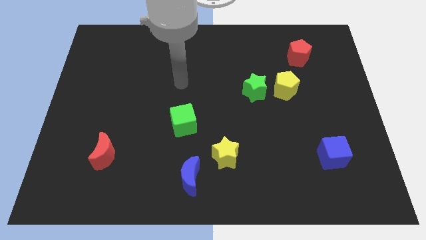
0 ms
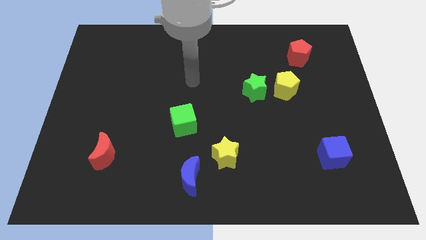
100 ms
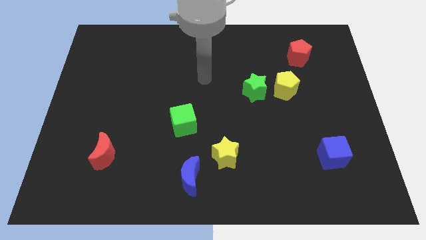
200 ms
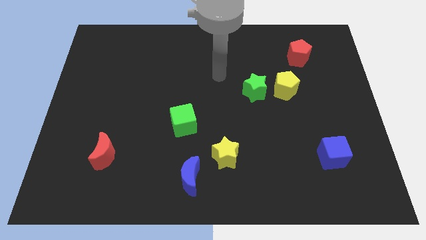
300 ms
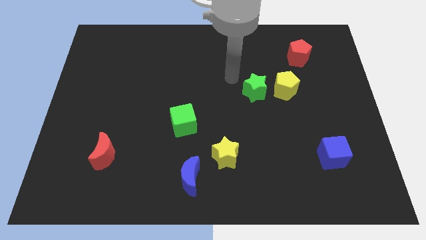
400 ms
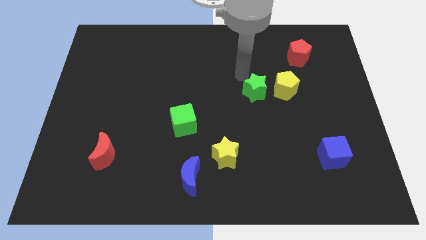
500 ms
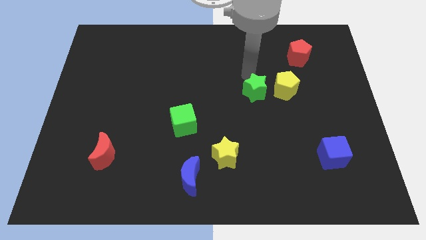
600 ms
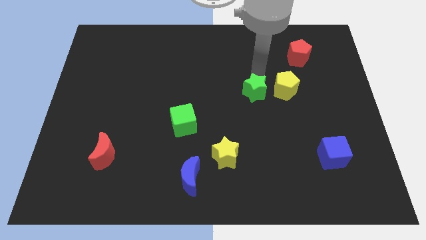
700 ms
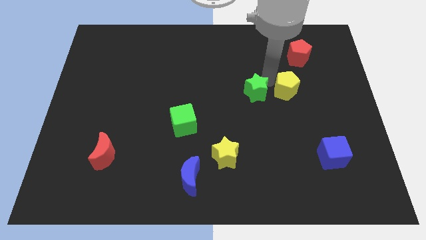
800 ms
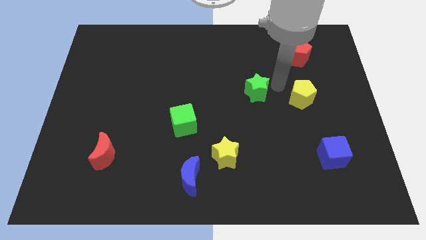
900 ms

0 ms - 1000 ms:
pull the green star apart from the yellow pentagon

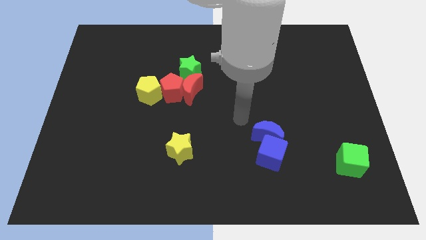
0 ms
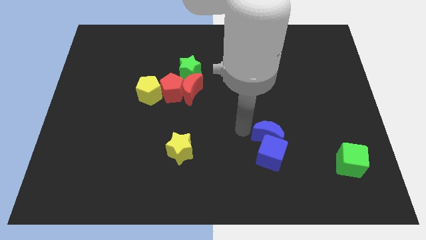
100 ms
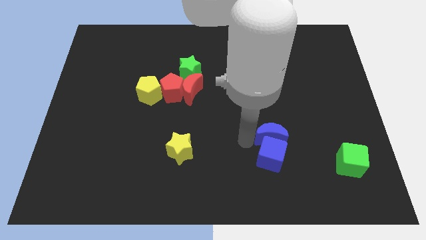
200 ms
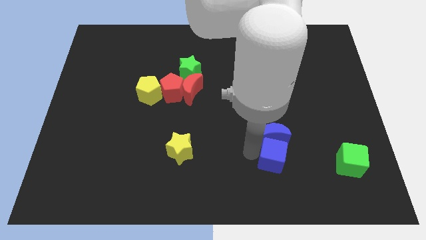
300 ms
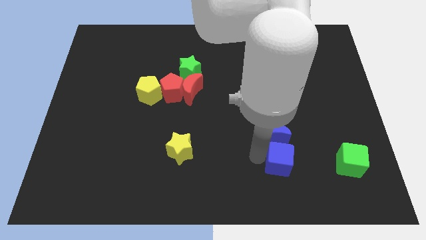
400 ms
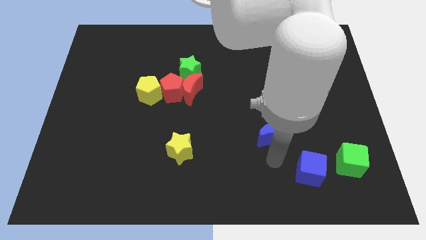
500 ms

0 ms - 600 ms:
separate the blue moon from the blue cube

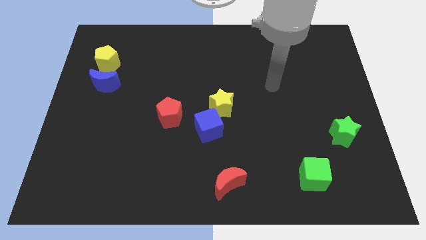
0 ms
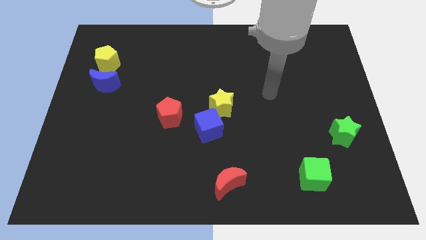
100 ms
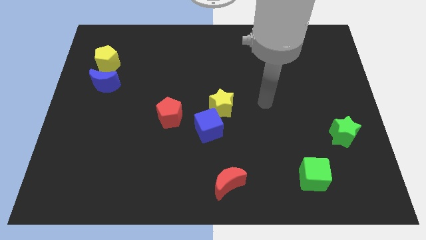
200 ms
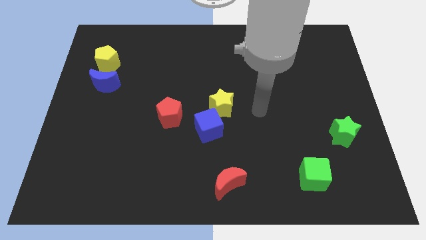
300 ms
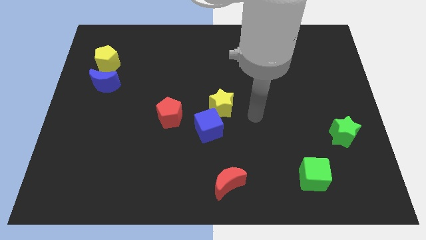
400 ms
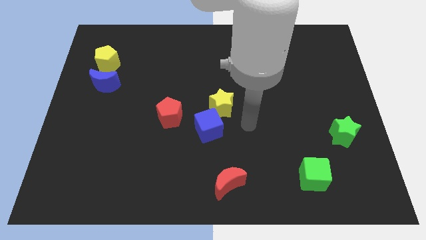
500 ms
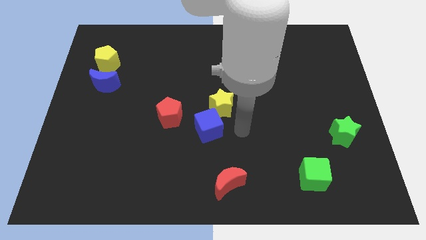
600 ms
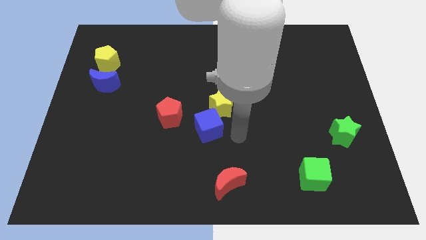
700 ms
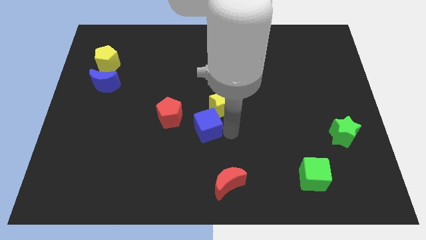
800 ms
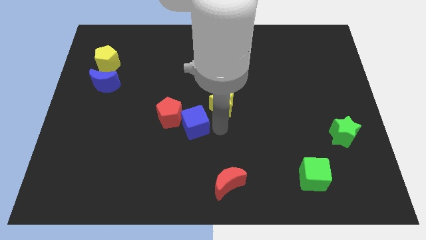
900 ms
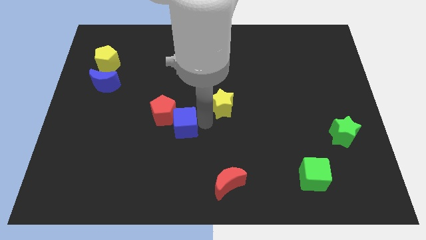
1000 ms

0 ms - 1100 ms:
move the yellow star away from the blue cube

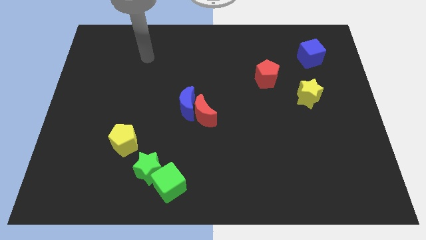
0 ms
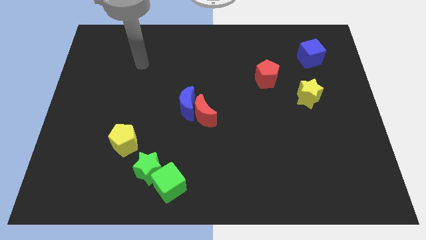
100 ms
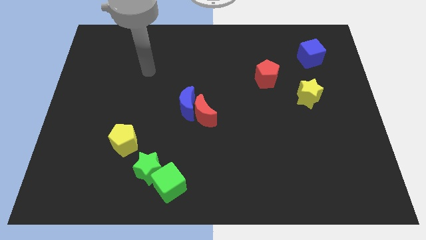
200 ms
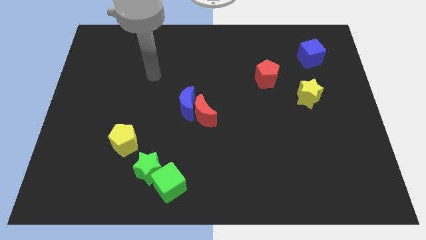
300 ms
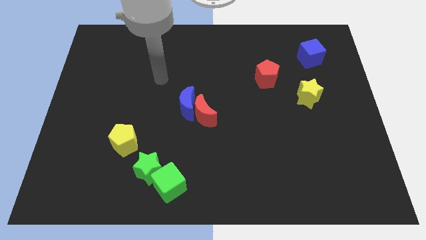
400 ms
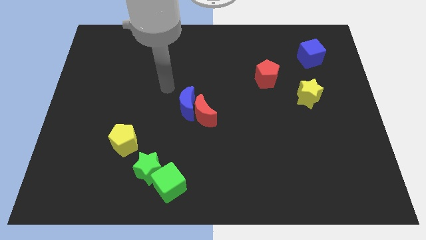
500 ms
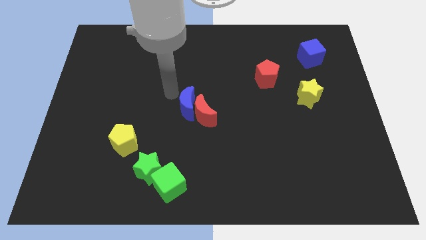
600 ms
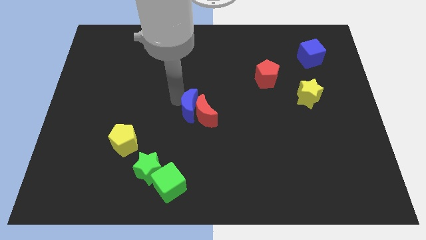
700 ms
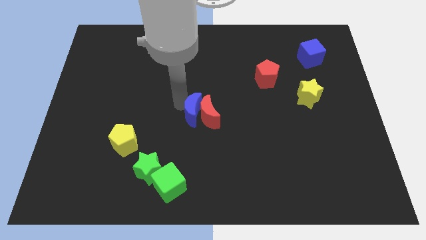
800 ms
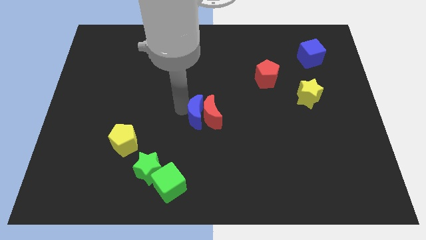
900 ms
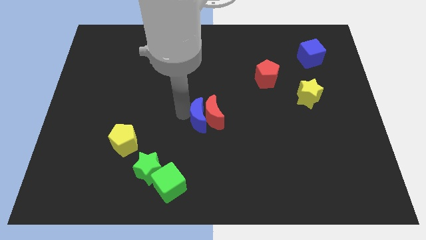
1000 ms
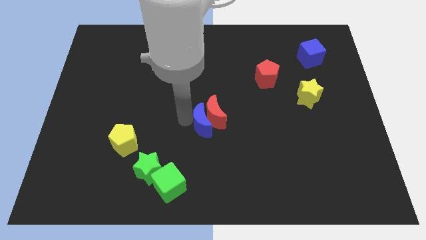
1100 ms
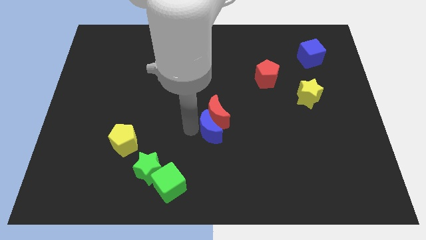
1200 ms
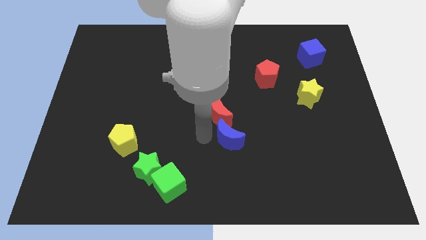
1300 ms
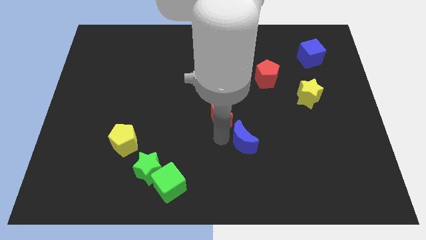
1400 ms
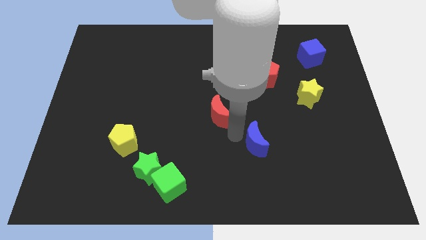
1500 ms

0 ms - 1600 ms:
move the red moon away from the blue moon

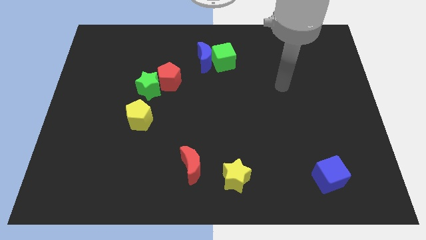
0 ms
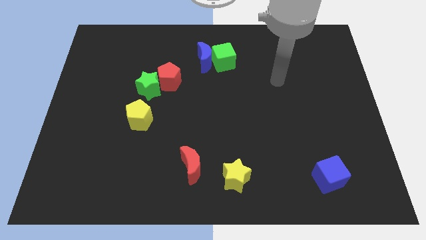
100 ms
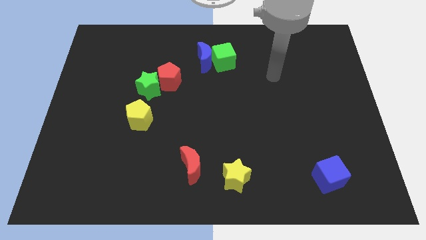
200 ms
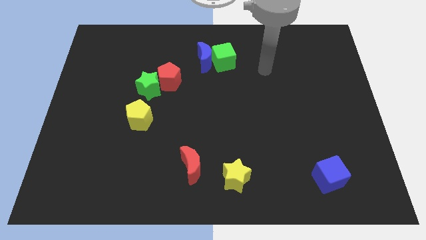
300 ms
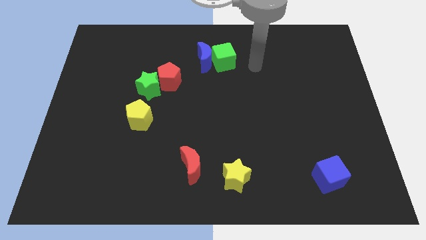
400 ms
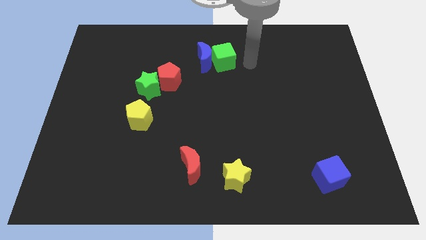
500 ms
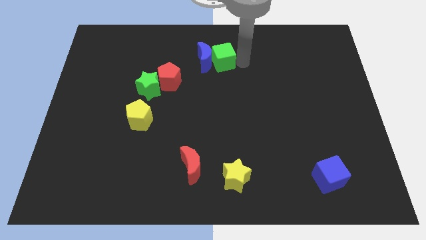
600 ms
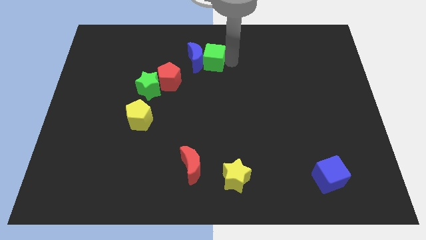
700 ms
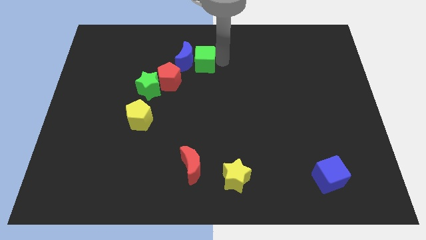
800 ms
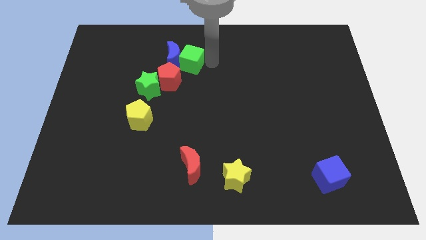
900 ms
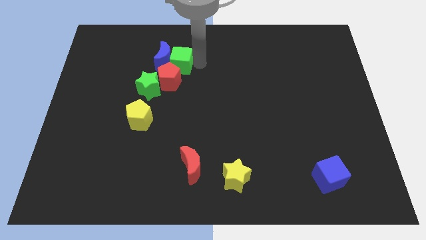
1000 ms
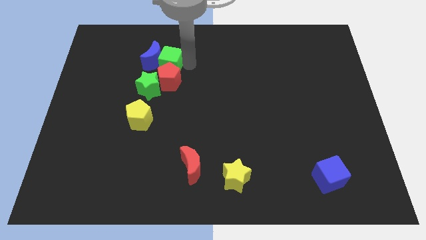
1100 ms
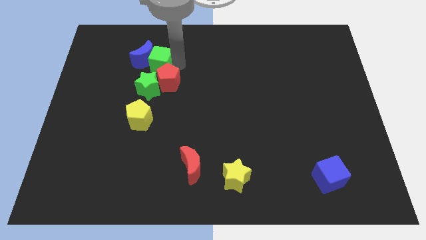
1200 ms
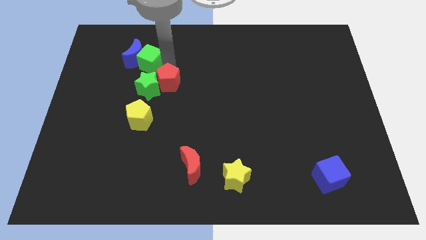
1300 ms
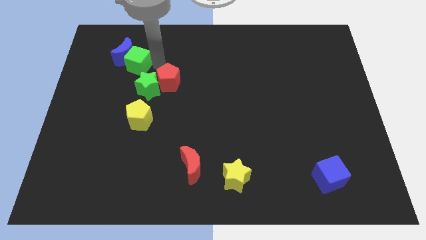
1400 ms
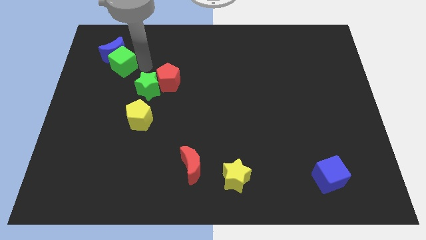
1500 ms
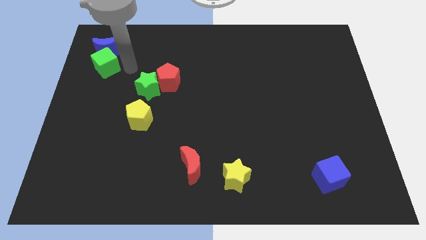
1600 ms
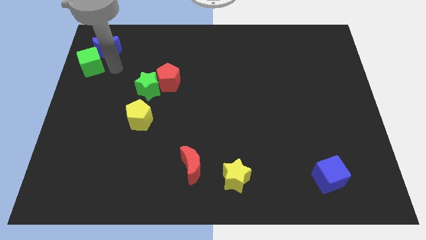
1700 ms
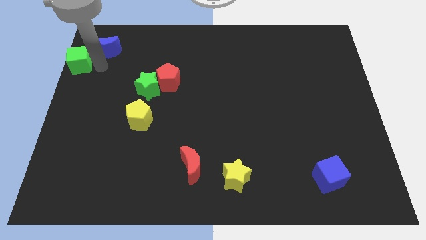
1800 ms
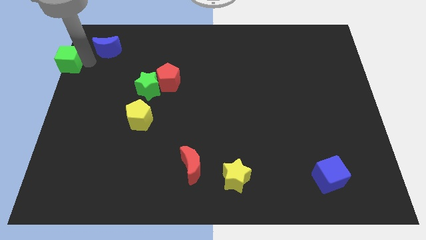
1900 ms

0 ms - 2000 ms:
separate the blue moon from the green cube

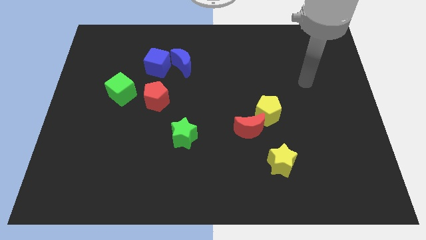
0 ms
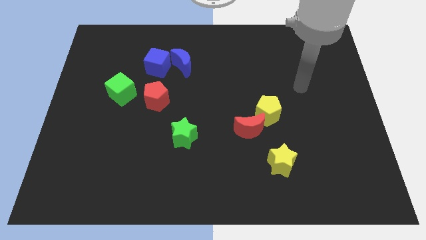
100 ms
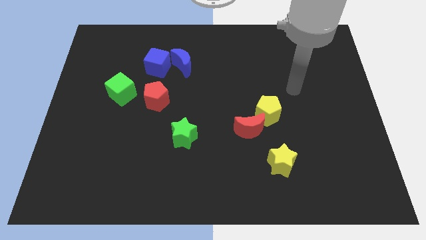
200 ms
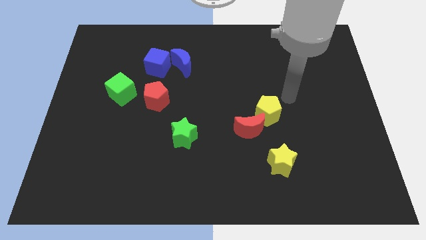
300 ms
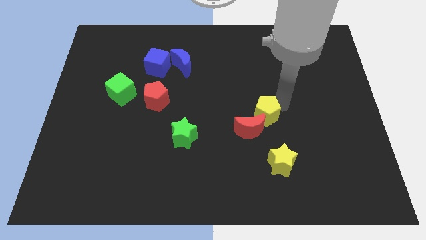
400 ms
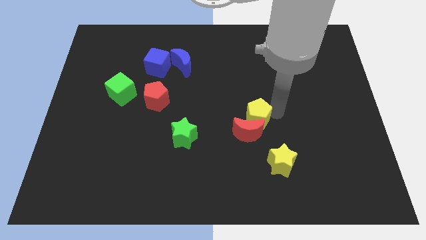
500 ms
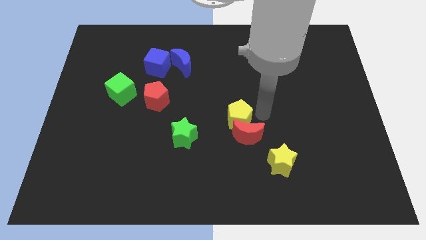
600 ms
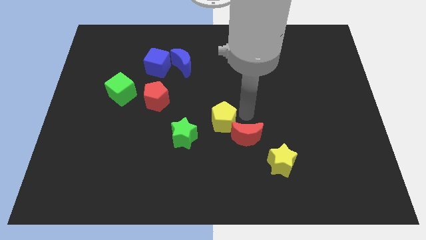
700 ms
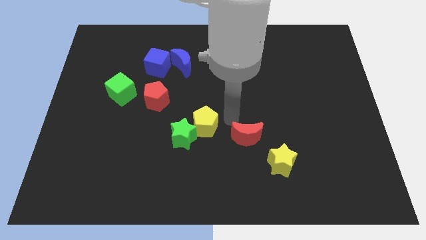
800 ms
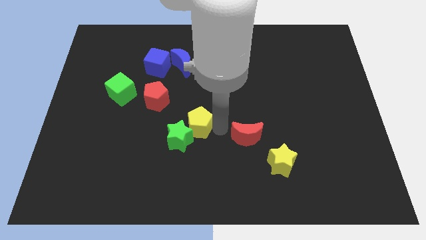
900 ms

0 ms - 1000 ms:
separate the red moon from the yellow pentagon

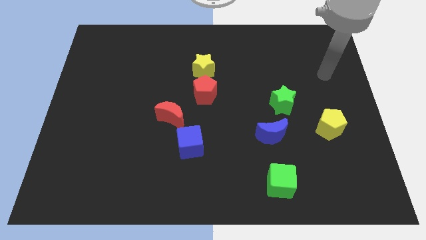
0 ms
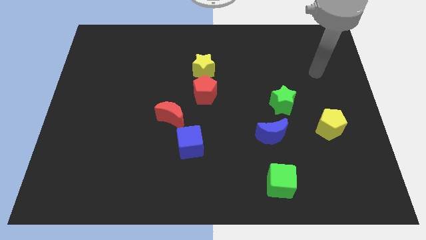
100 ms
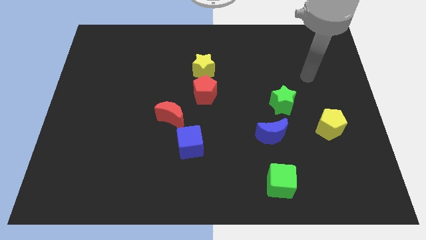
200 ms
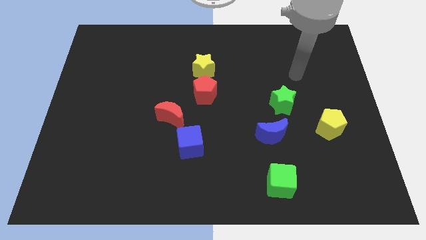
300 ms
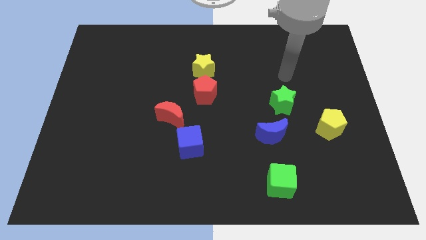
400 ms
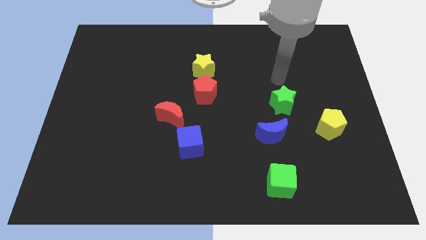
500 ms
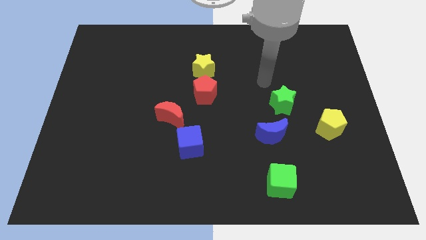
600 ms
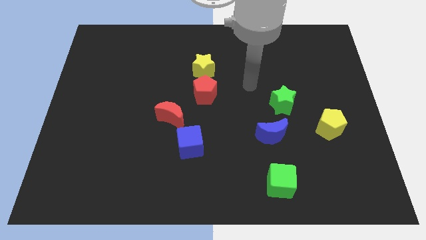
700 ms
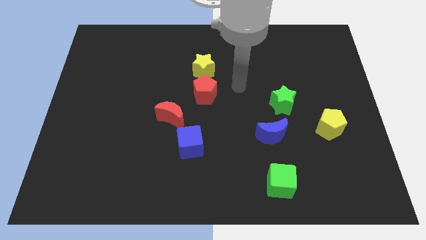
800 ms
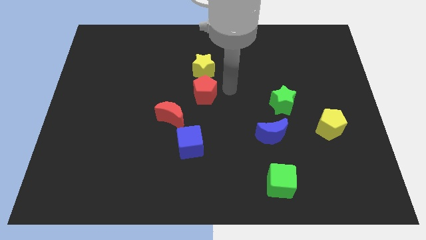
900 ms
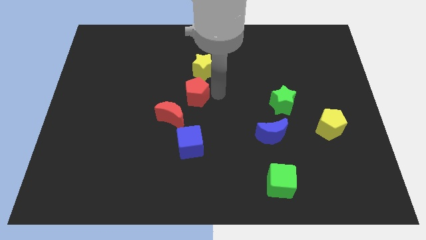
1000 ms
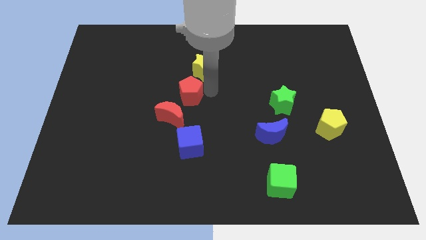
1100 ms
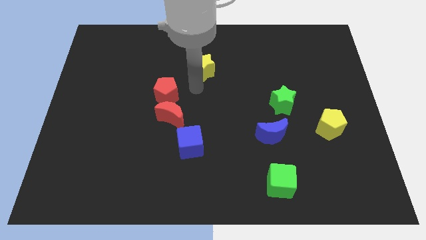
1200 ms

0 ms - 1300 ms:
move the yellow star away from the red pentagon

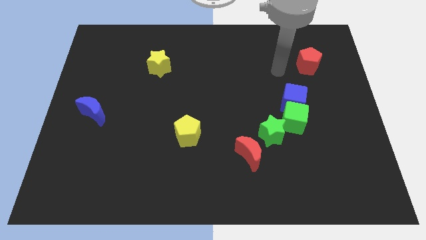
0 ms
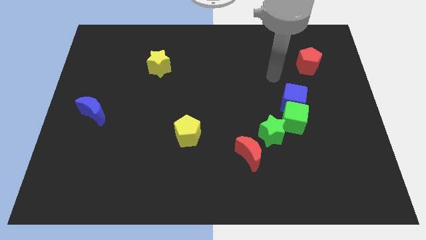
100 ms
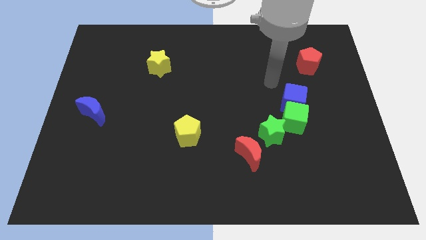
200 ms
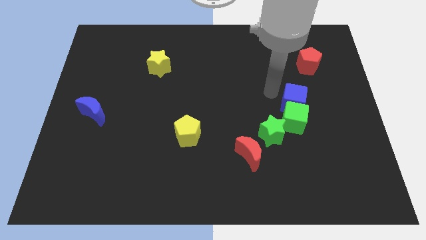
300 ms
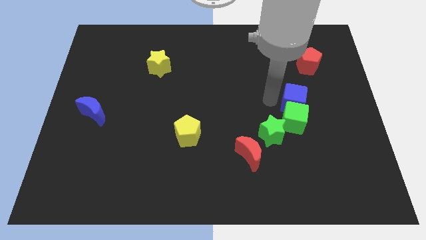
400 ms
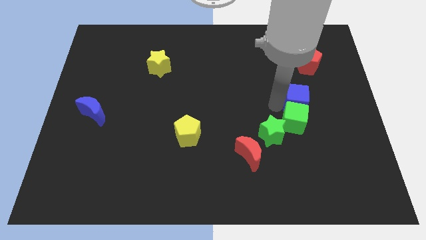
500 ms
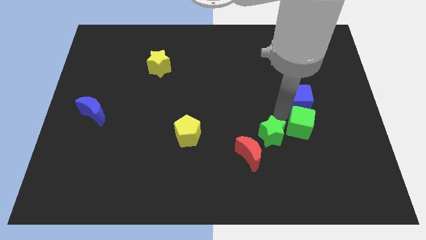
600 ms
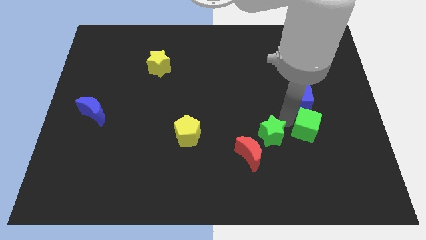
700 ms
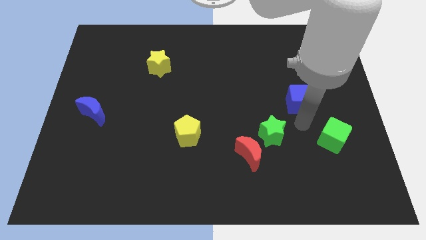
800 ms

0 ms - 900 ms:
move the blue cube away from the green cube
